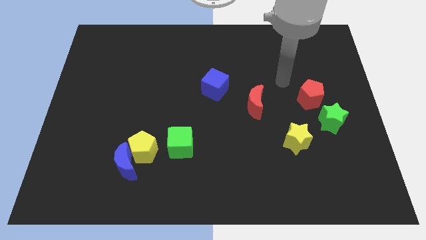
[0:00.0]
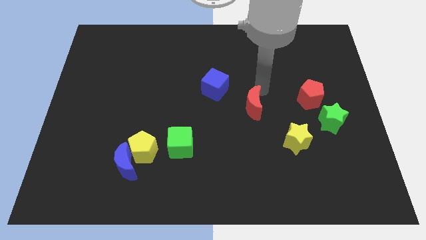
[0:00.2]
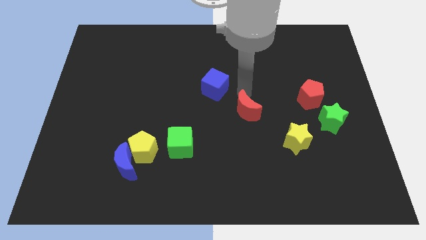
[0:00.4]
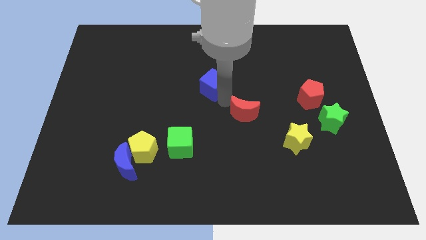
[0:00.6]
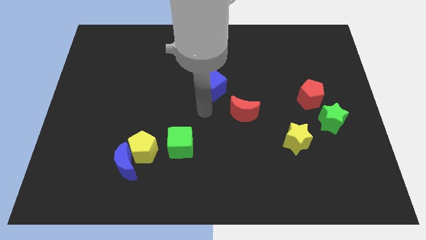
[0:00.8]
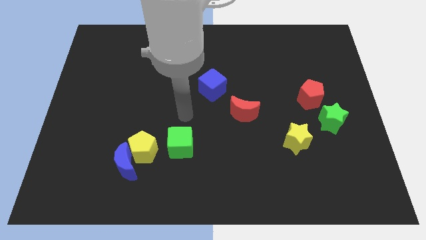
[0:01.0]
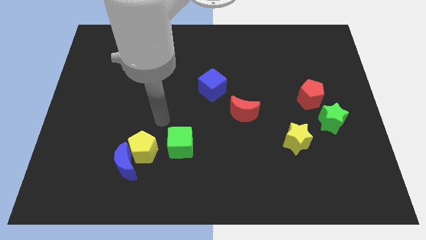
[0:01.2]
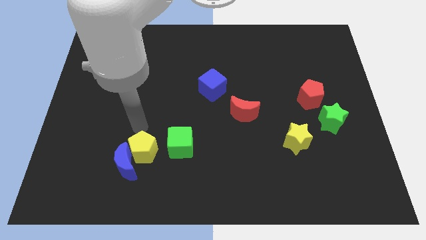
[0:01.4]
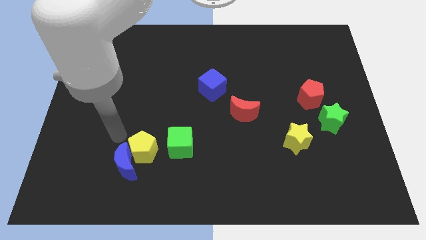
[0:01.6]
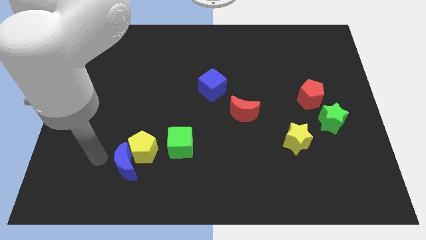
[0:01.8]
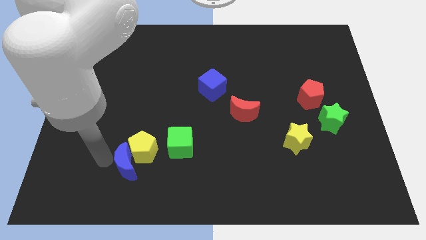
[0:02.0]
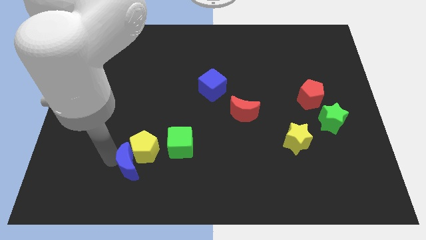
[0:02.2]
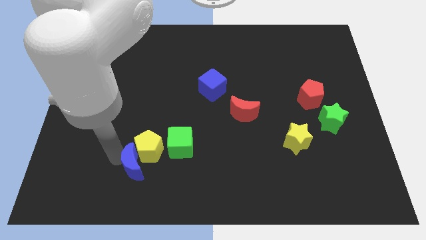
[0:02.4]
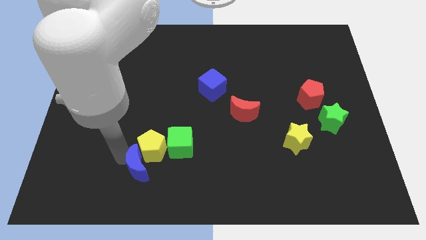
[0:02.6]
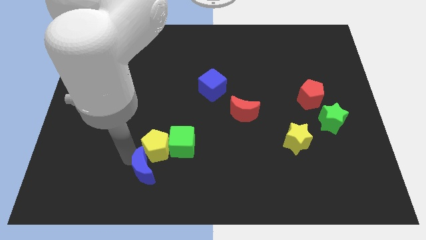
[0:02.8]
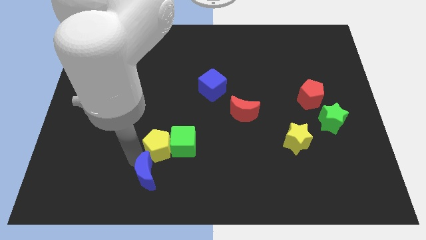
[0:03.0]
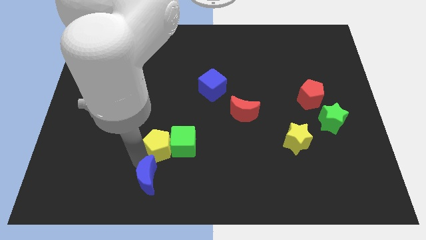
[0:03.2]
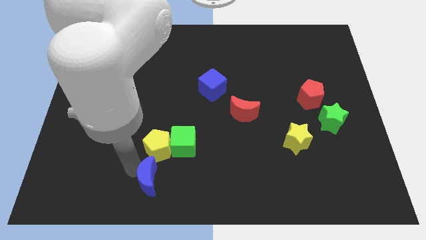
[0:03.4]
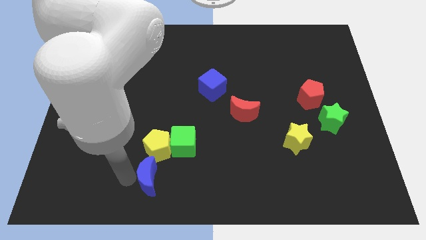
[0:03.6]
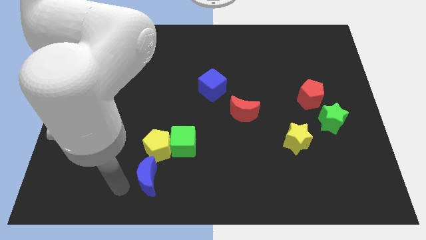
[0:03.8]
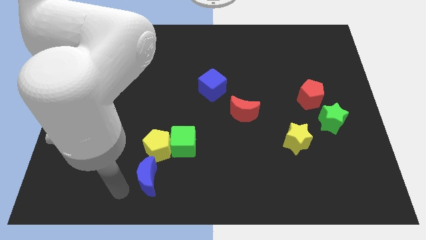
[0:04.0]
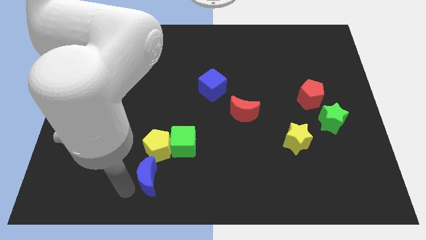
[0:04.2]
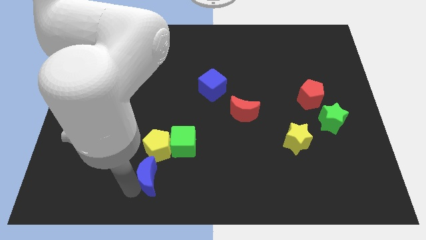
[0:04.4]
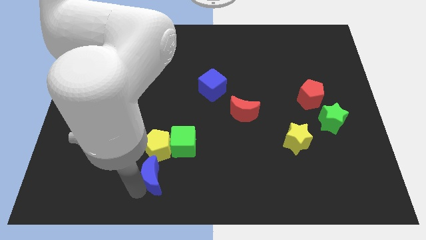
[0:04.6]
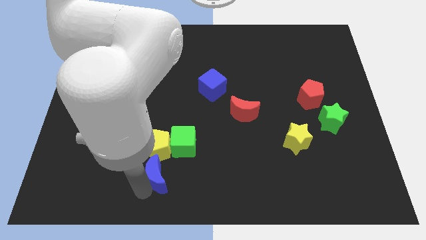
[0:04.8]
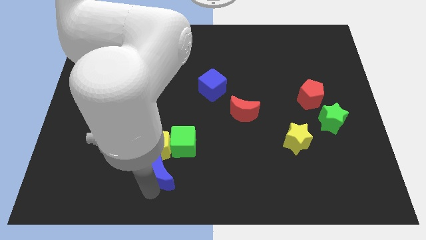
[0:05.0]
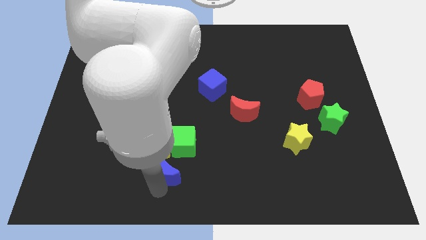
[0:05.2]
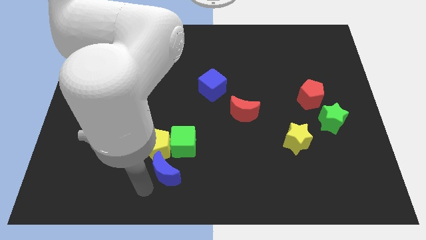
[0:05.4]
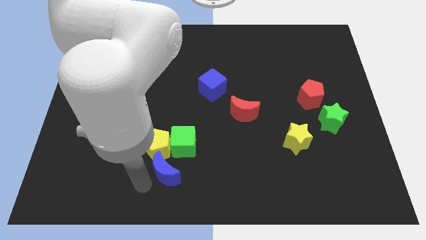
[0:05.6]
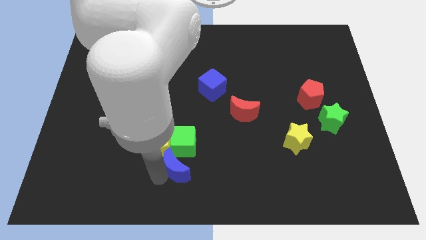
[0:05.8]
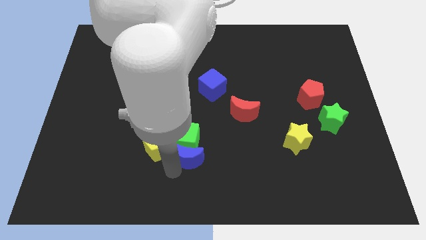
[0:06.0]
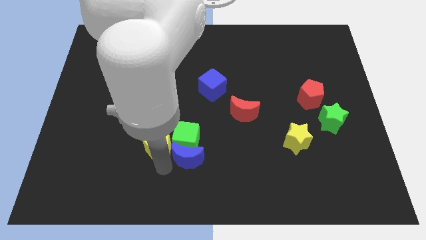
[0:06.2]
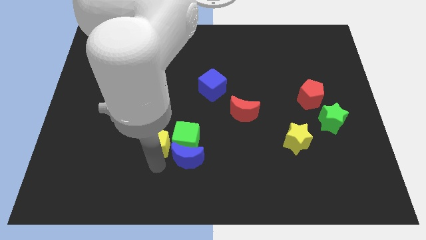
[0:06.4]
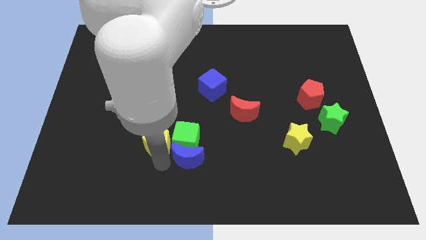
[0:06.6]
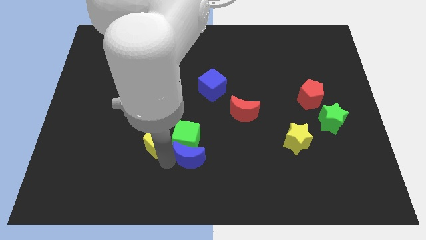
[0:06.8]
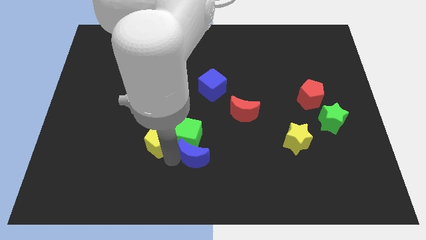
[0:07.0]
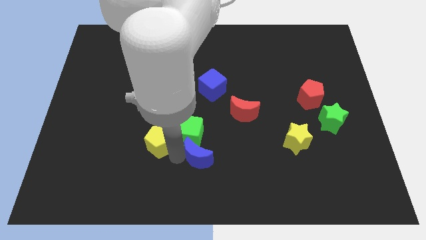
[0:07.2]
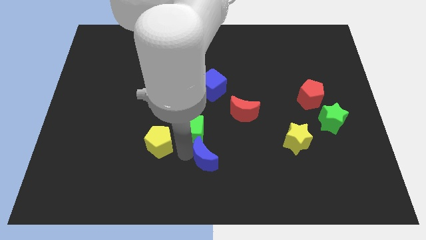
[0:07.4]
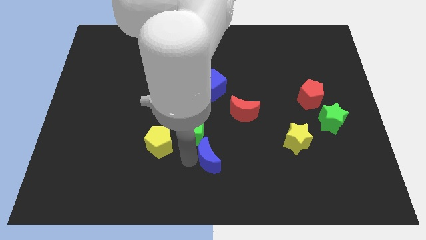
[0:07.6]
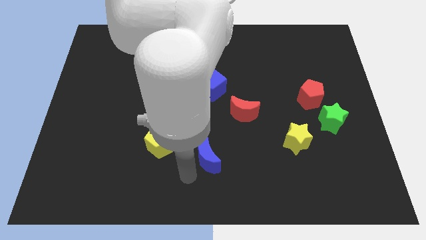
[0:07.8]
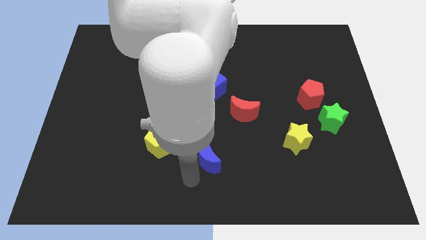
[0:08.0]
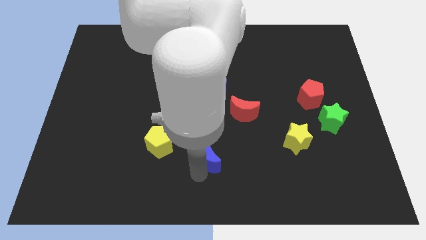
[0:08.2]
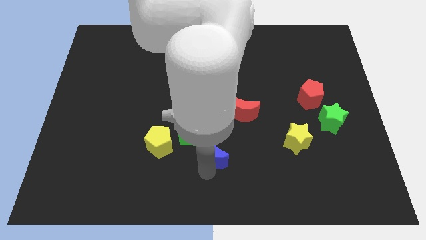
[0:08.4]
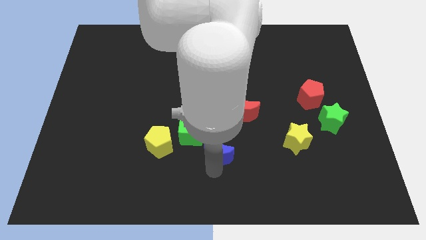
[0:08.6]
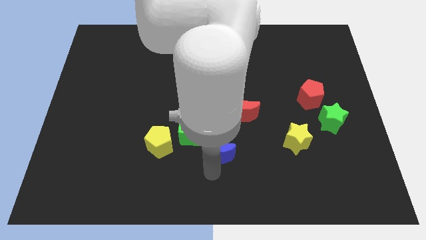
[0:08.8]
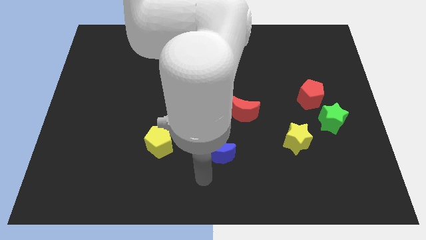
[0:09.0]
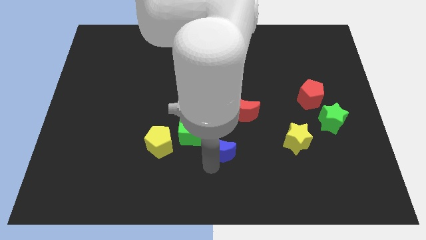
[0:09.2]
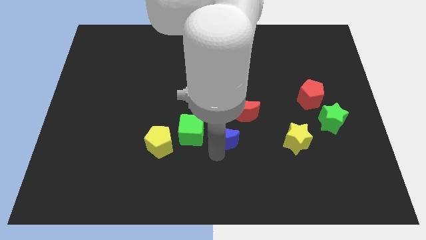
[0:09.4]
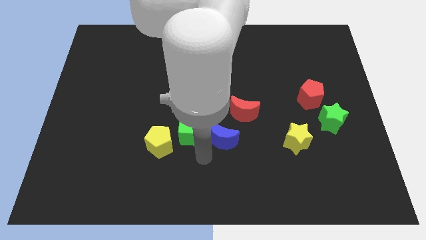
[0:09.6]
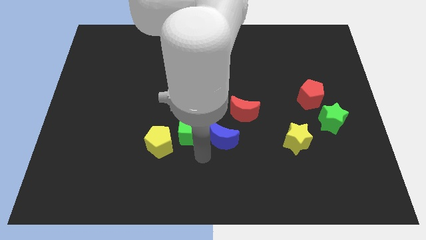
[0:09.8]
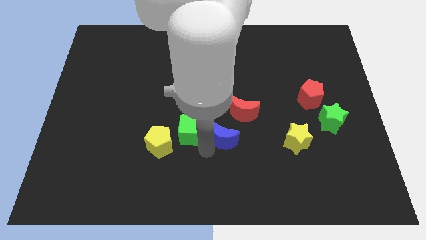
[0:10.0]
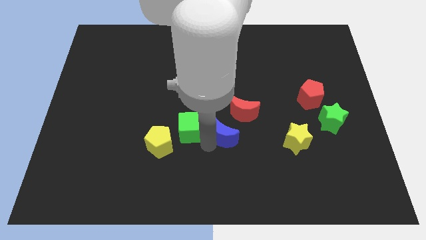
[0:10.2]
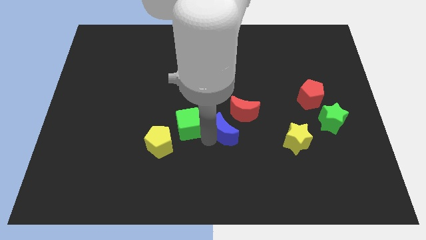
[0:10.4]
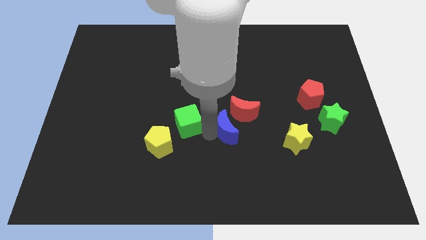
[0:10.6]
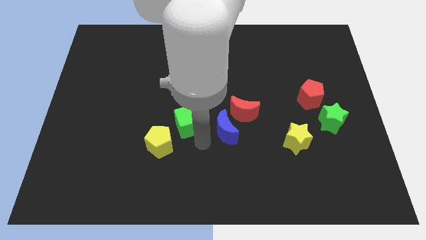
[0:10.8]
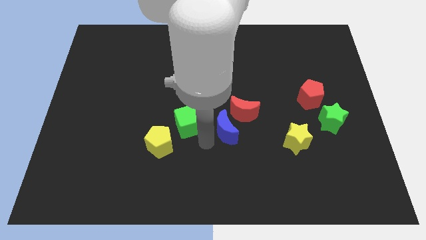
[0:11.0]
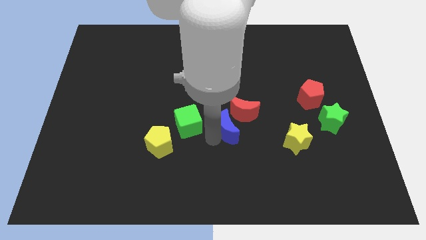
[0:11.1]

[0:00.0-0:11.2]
put the blue moon next to the red moon

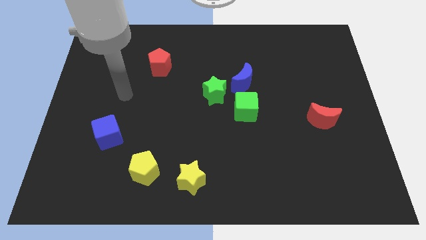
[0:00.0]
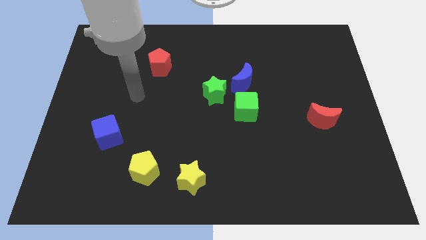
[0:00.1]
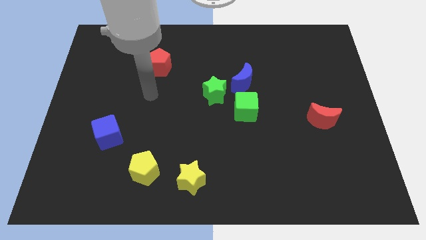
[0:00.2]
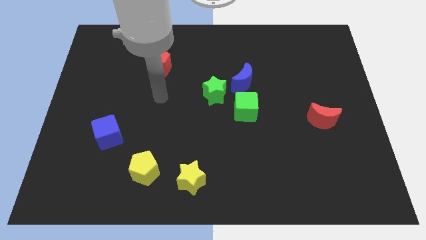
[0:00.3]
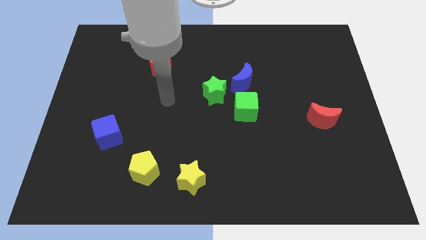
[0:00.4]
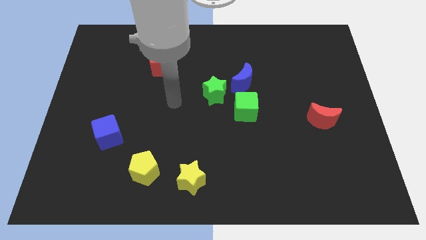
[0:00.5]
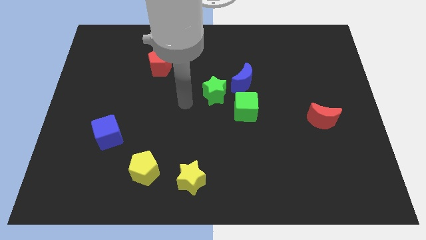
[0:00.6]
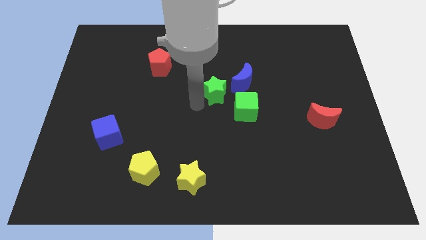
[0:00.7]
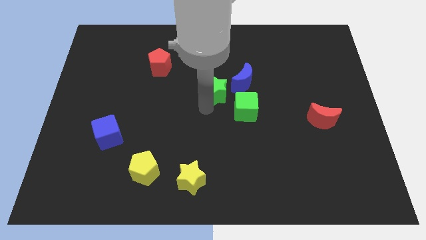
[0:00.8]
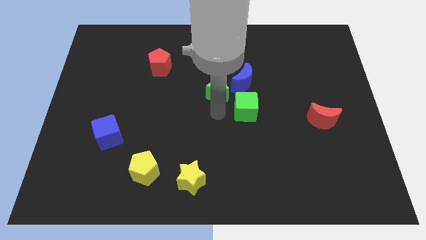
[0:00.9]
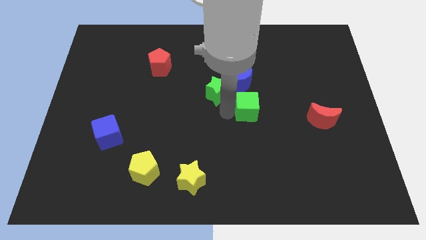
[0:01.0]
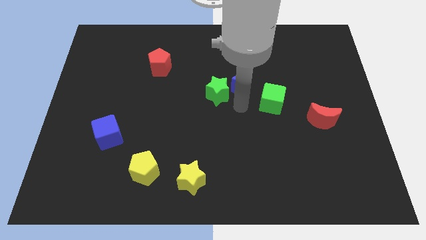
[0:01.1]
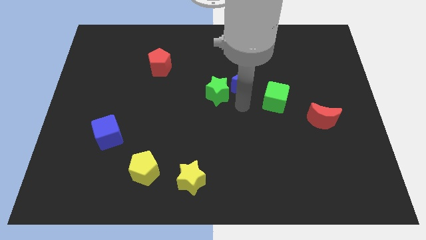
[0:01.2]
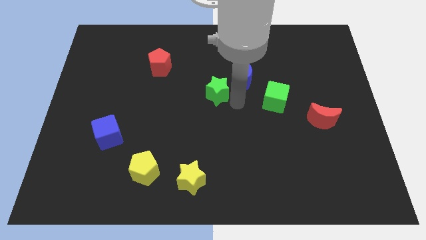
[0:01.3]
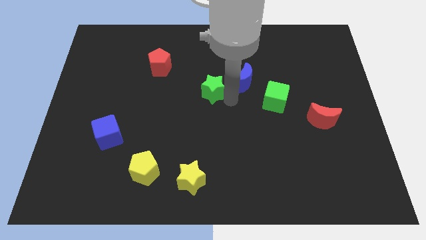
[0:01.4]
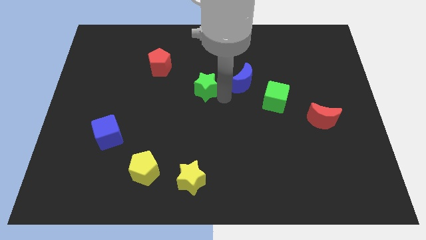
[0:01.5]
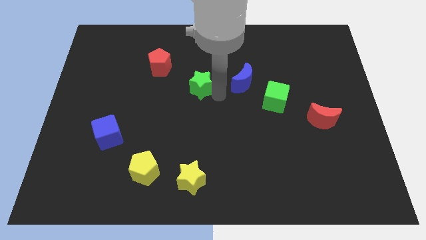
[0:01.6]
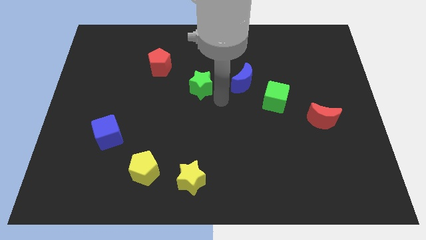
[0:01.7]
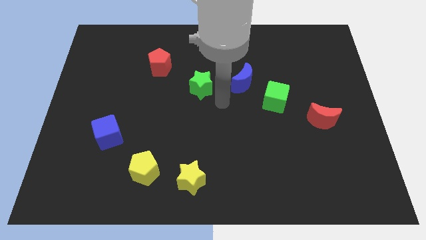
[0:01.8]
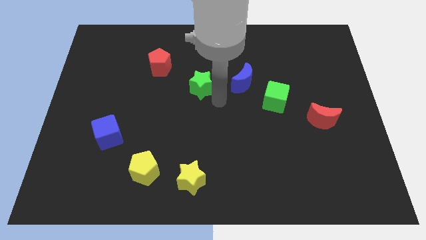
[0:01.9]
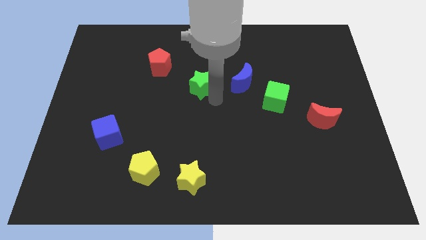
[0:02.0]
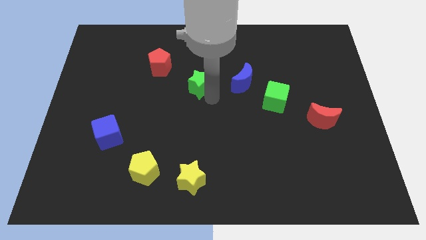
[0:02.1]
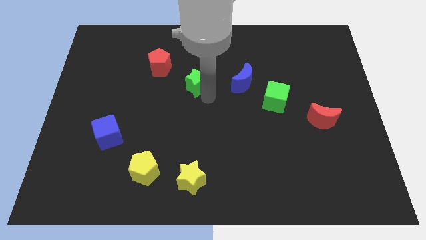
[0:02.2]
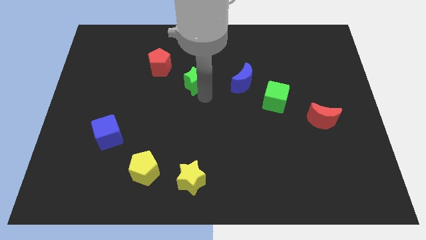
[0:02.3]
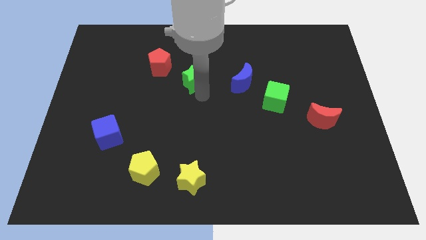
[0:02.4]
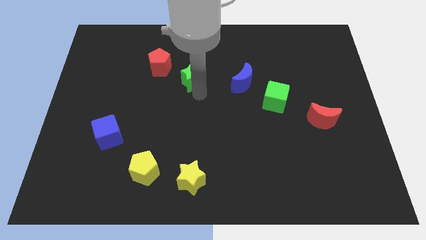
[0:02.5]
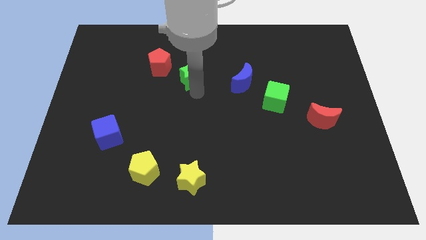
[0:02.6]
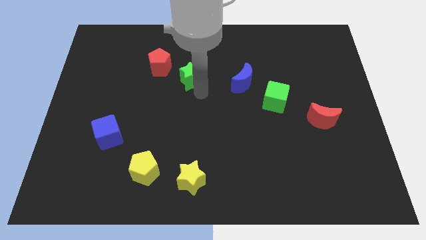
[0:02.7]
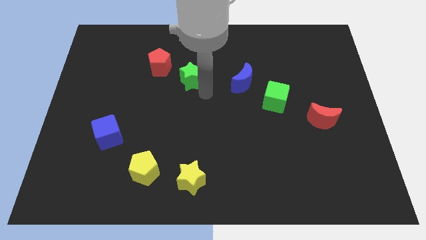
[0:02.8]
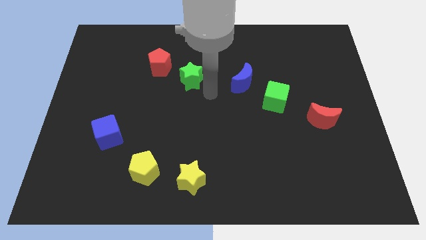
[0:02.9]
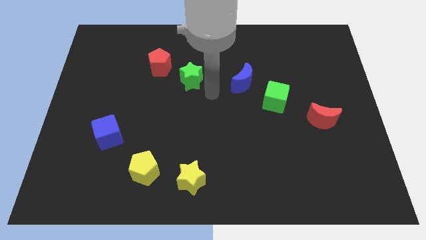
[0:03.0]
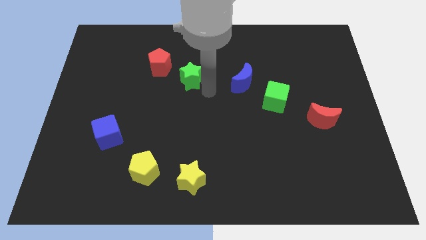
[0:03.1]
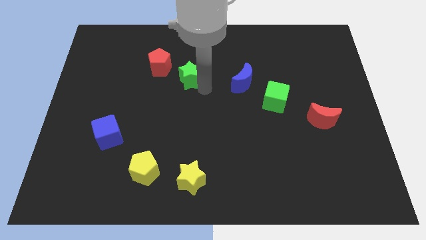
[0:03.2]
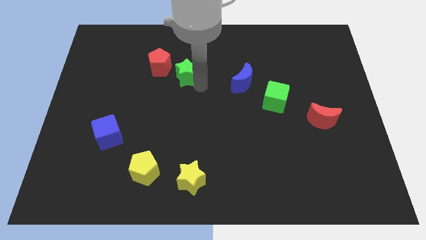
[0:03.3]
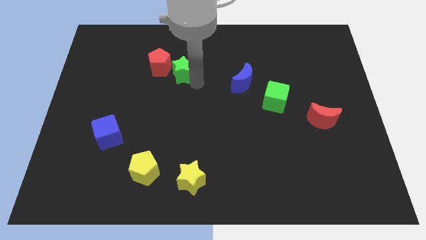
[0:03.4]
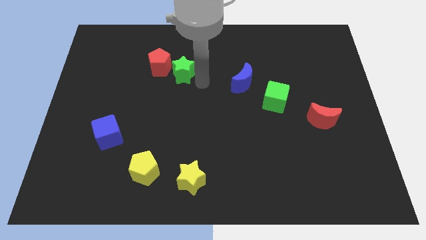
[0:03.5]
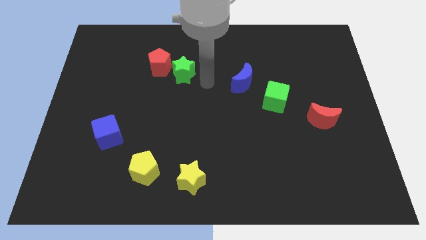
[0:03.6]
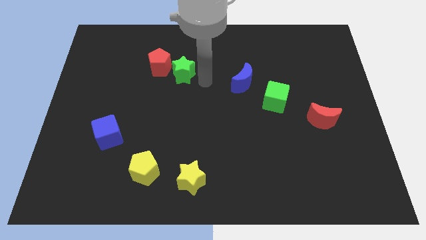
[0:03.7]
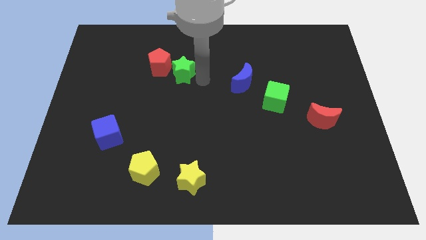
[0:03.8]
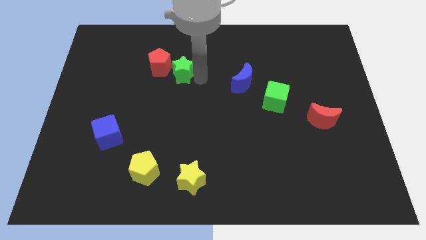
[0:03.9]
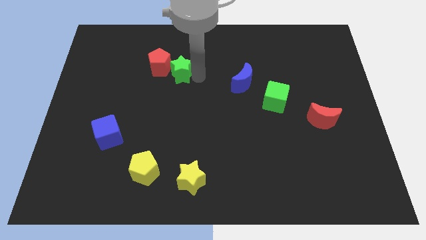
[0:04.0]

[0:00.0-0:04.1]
put the green star towards the red pentagon
